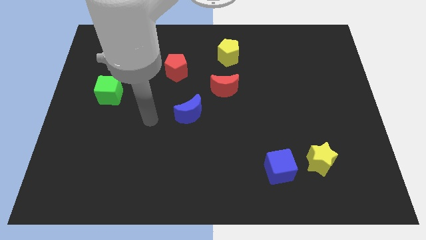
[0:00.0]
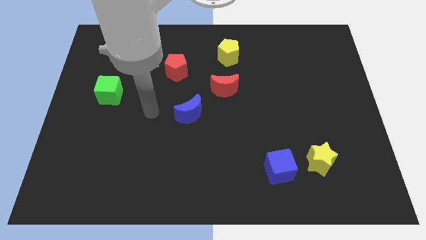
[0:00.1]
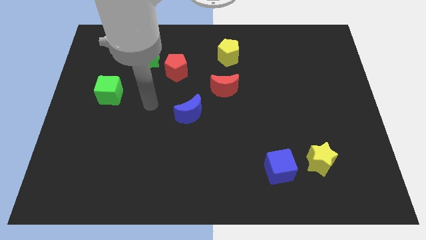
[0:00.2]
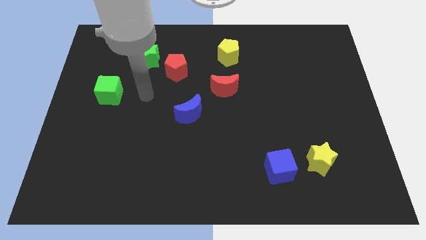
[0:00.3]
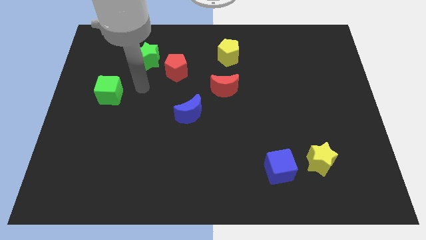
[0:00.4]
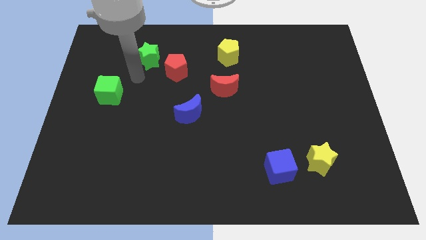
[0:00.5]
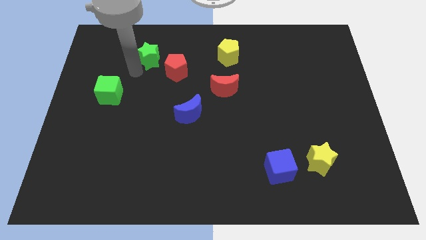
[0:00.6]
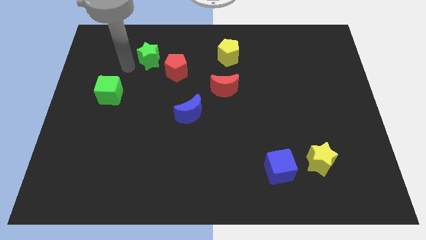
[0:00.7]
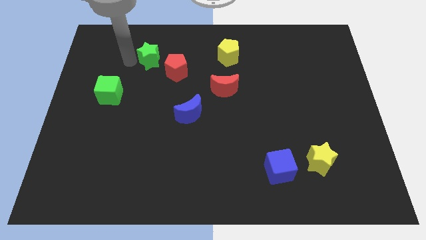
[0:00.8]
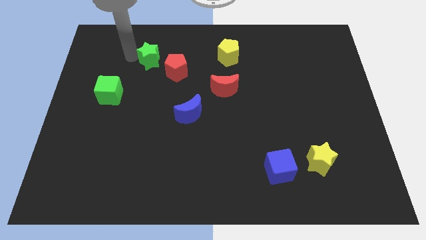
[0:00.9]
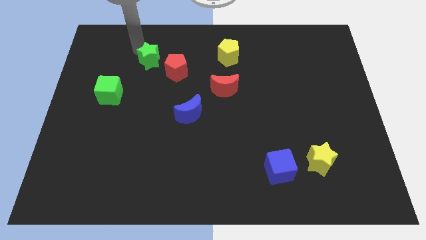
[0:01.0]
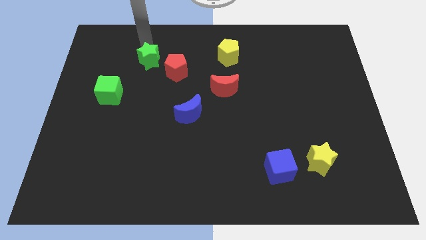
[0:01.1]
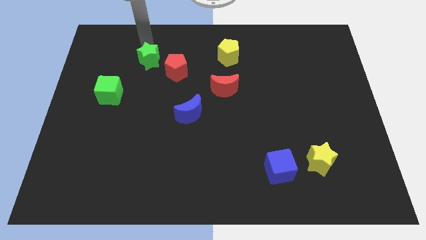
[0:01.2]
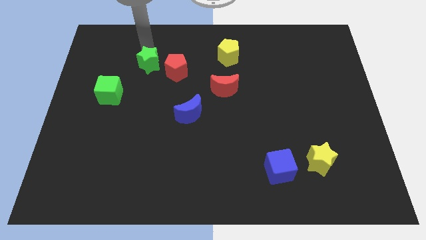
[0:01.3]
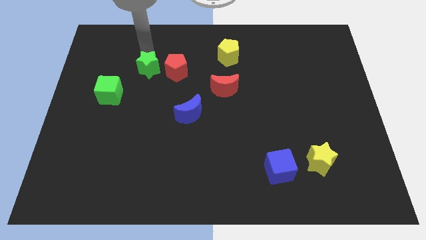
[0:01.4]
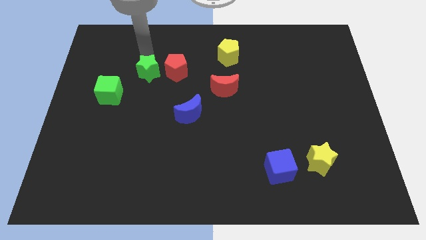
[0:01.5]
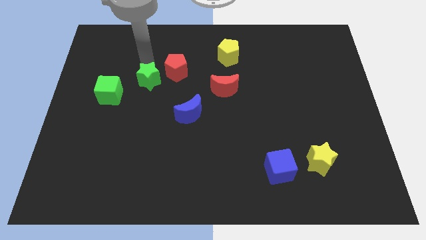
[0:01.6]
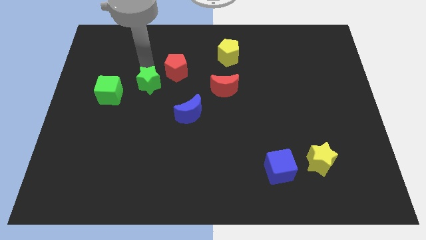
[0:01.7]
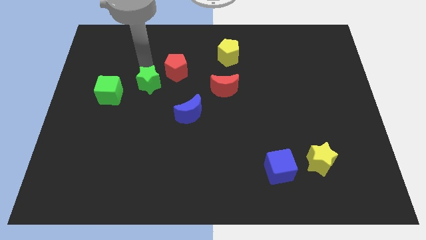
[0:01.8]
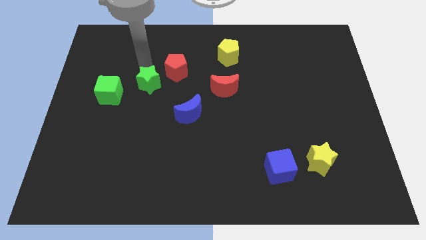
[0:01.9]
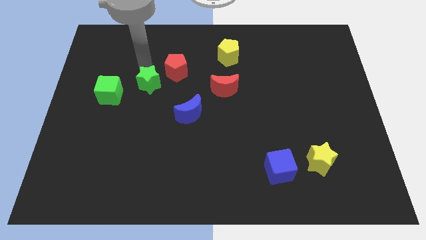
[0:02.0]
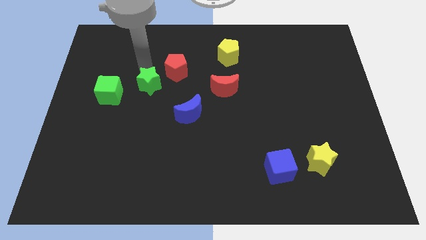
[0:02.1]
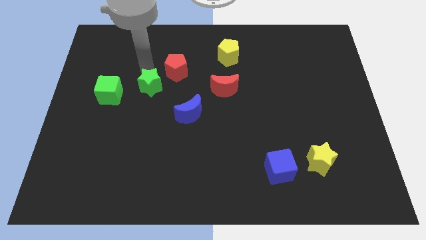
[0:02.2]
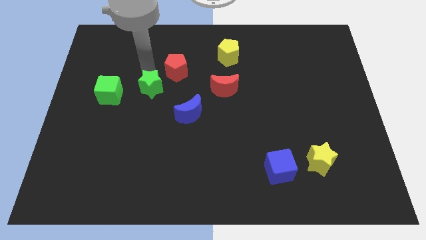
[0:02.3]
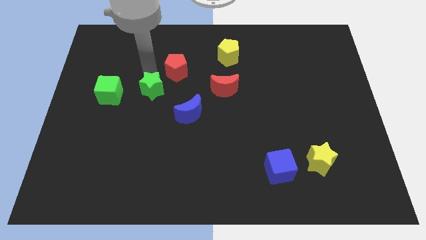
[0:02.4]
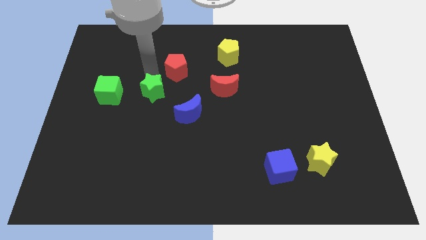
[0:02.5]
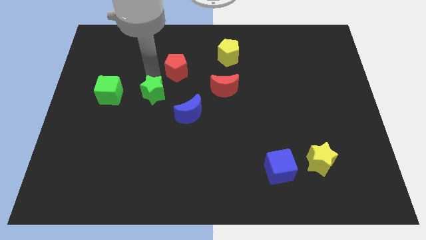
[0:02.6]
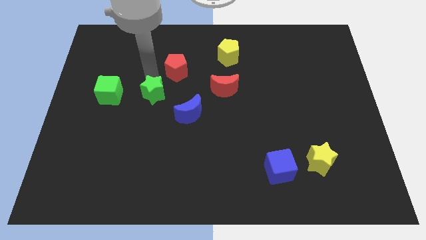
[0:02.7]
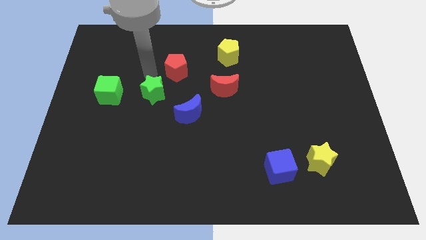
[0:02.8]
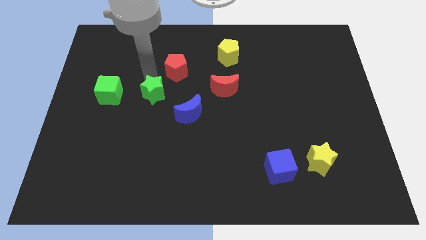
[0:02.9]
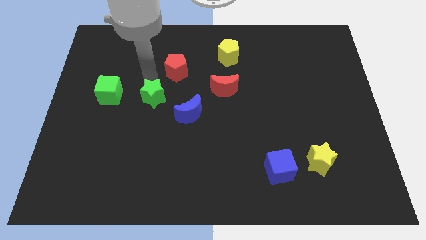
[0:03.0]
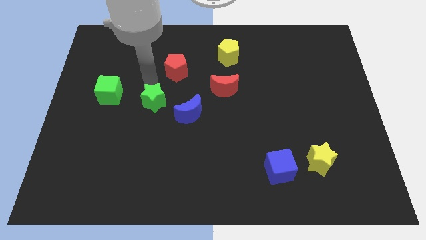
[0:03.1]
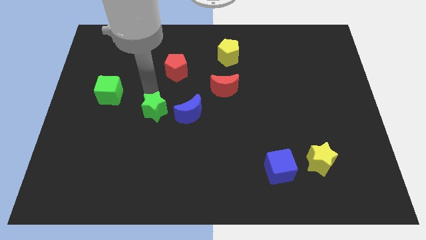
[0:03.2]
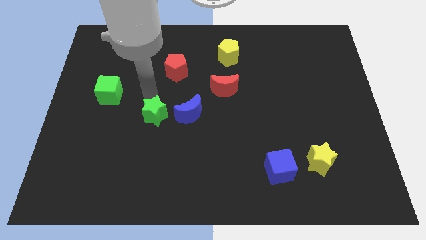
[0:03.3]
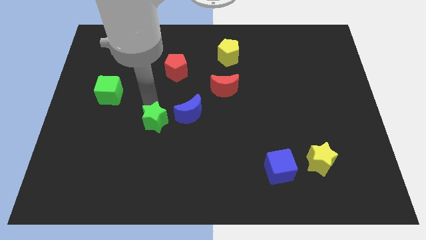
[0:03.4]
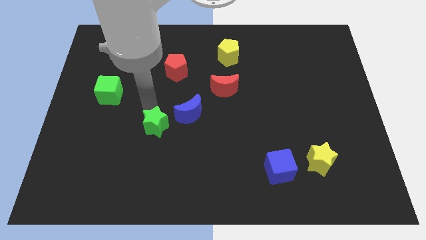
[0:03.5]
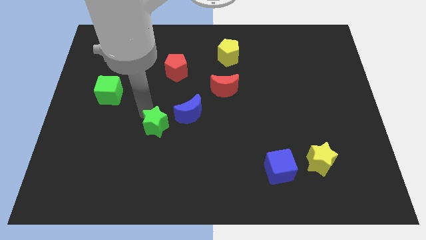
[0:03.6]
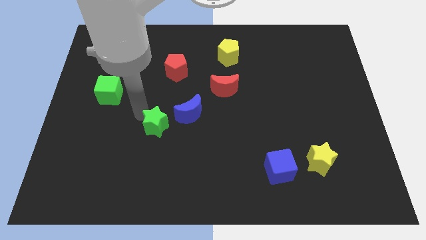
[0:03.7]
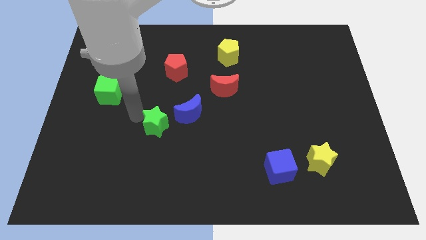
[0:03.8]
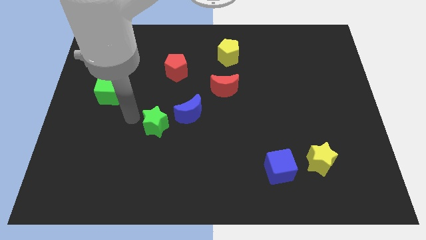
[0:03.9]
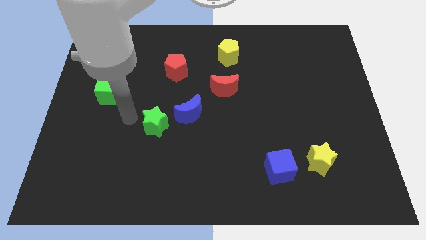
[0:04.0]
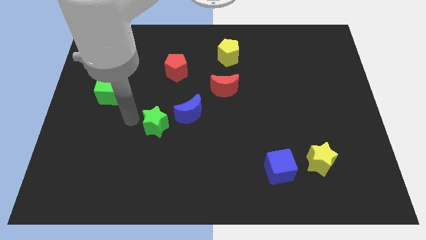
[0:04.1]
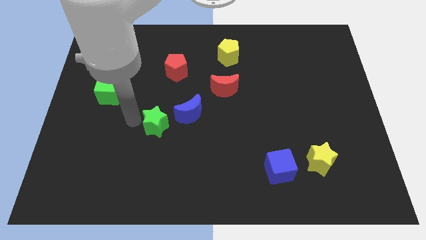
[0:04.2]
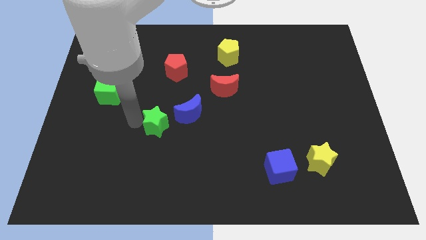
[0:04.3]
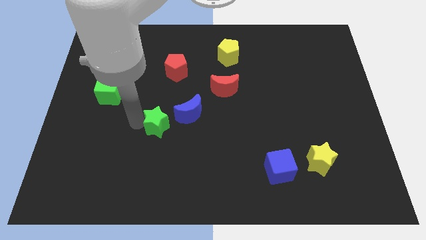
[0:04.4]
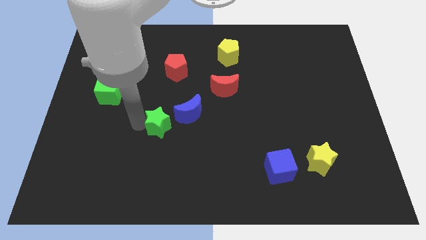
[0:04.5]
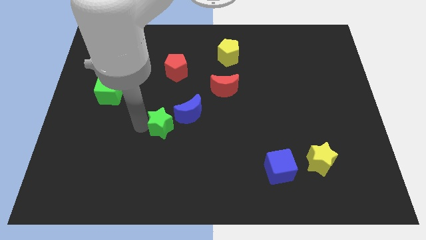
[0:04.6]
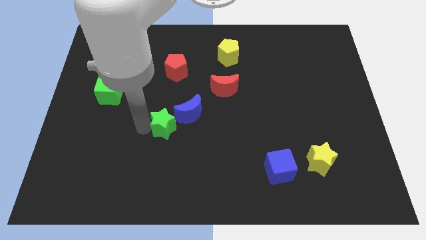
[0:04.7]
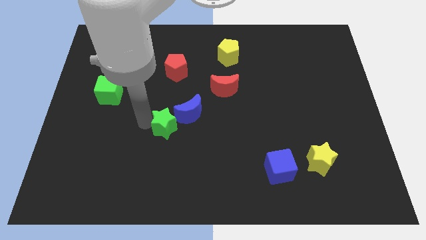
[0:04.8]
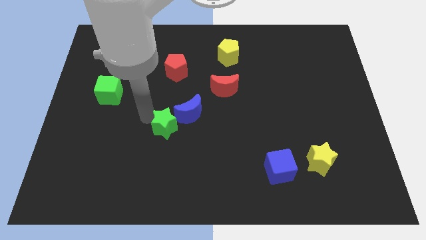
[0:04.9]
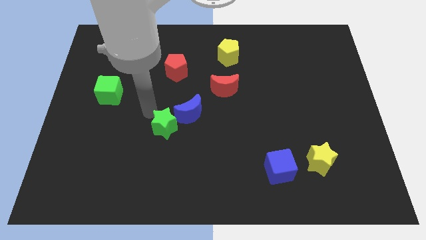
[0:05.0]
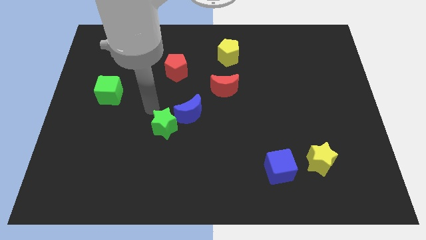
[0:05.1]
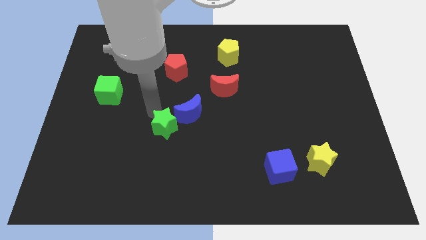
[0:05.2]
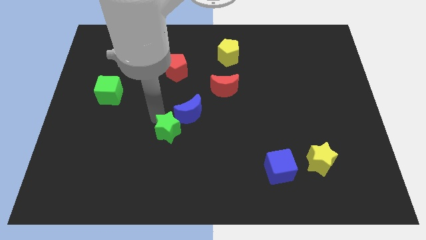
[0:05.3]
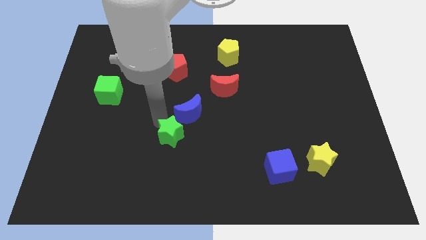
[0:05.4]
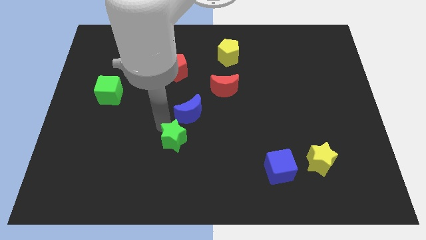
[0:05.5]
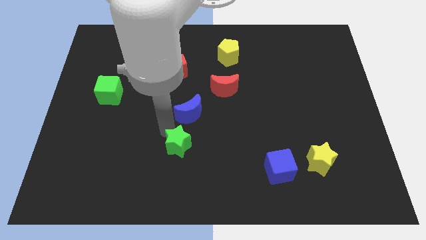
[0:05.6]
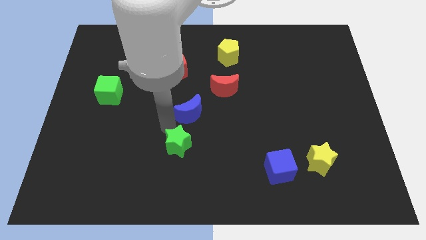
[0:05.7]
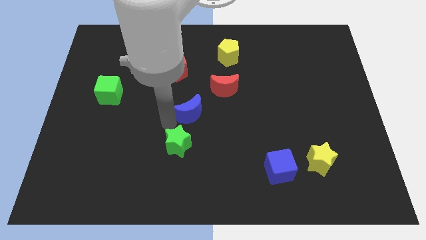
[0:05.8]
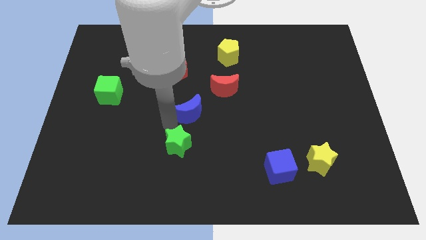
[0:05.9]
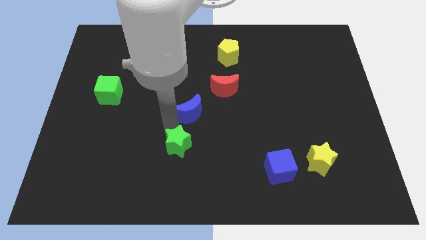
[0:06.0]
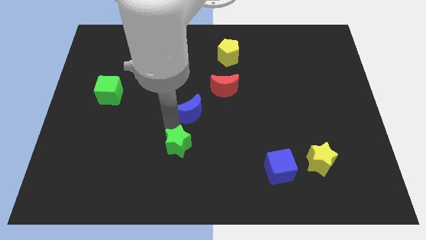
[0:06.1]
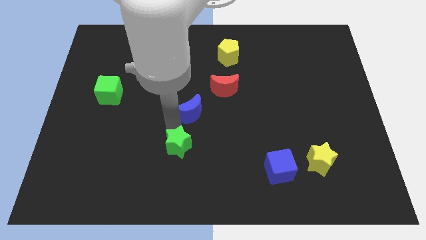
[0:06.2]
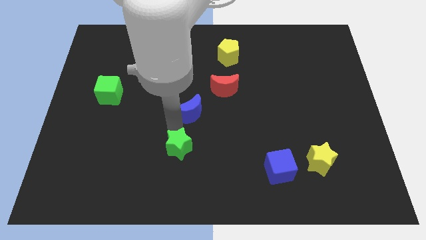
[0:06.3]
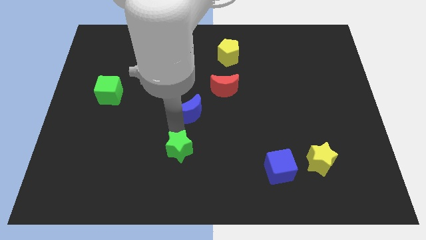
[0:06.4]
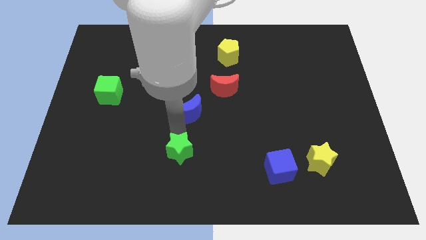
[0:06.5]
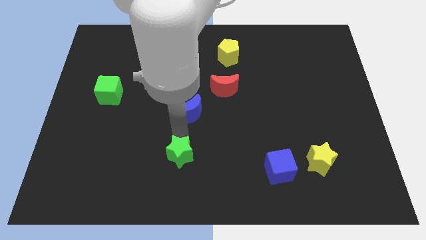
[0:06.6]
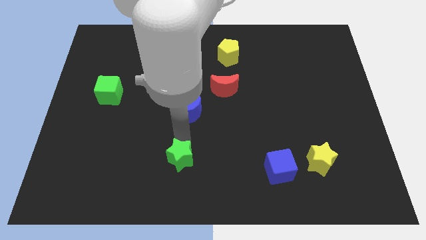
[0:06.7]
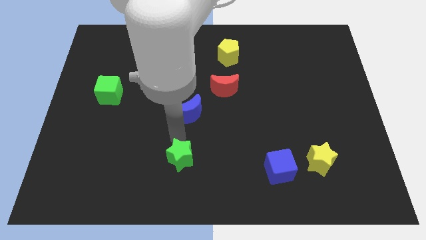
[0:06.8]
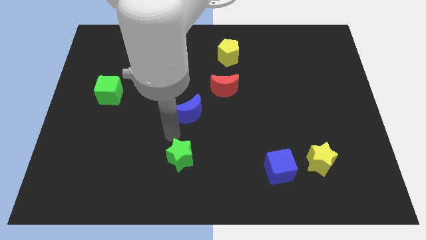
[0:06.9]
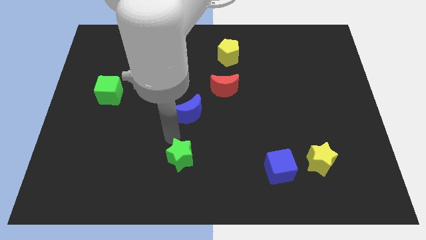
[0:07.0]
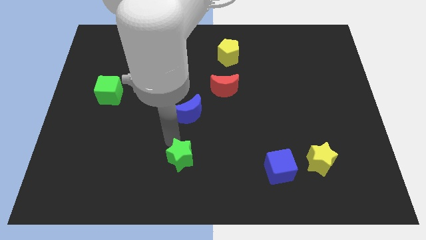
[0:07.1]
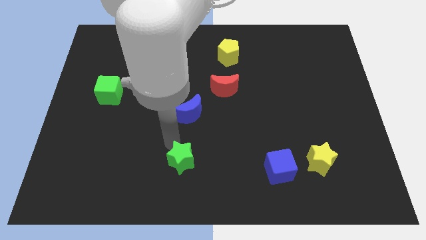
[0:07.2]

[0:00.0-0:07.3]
push the green star to the bottom
